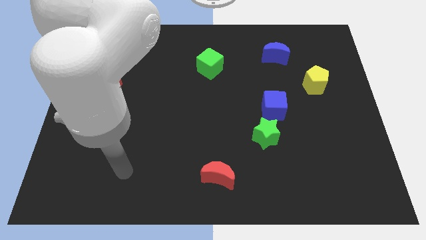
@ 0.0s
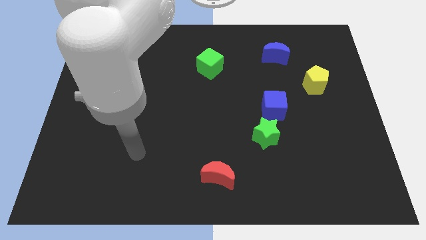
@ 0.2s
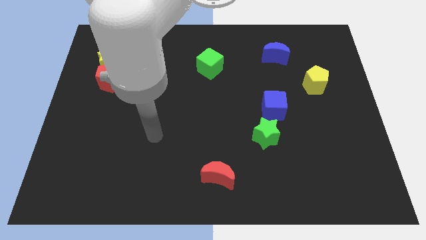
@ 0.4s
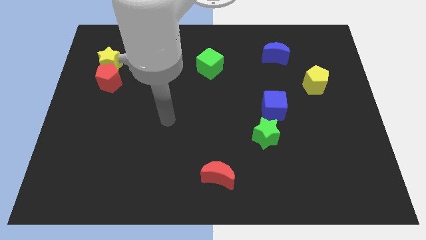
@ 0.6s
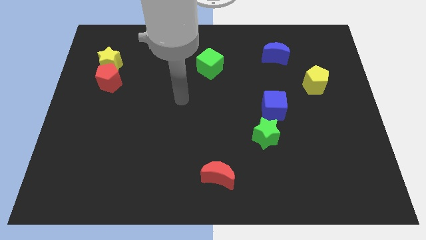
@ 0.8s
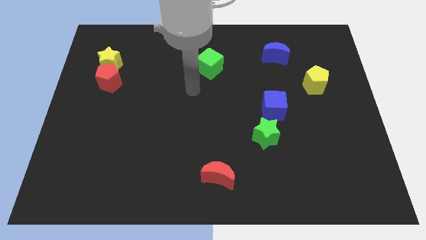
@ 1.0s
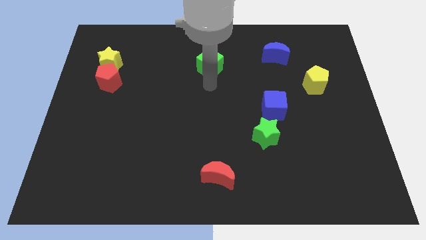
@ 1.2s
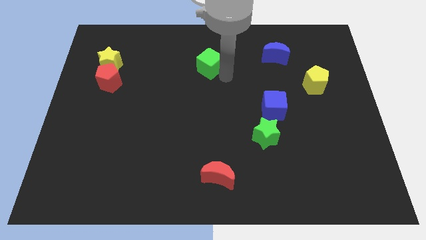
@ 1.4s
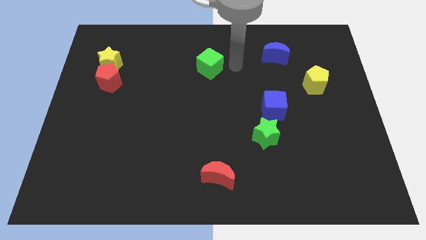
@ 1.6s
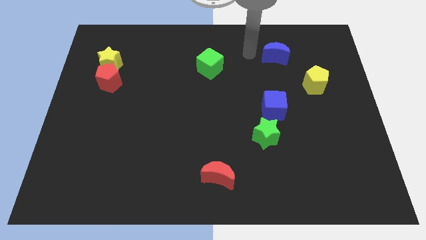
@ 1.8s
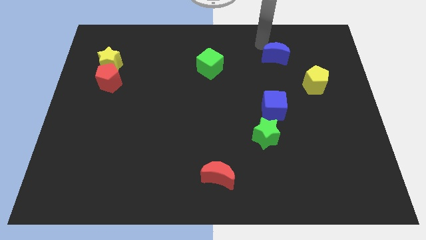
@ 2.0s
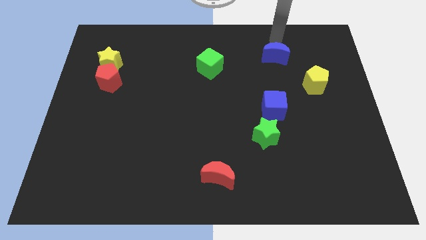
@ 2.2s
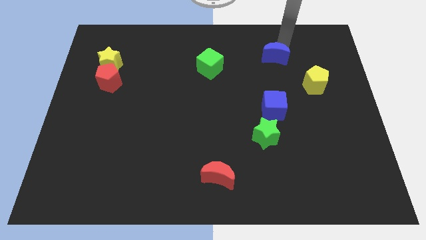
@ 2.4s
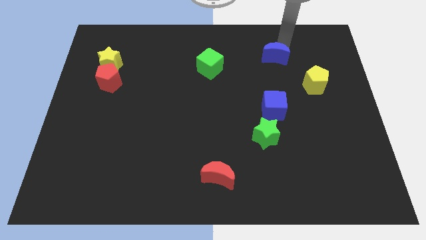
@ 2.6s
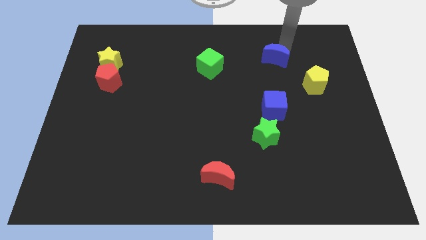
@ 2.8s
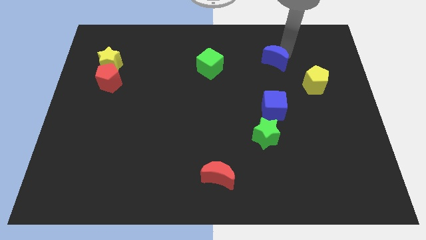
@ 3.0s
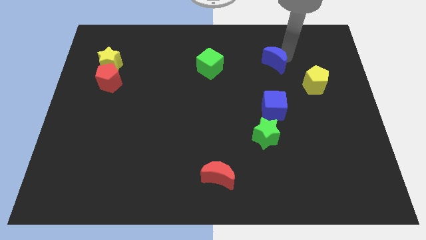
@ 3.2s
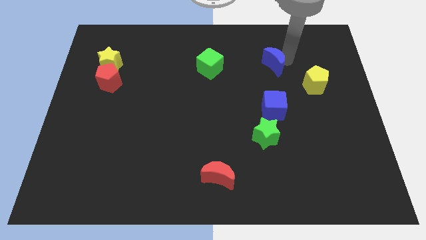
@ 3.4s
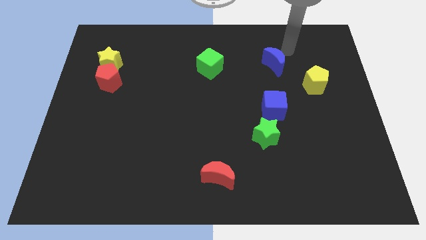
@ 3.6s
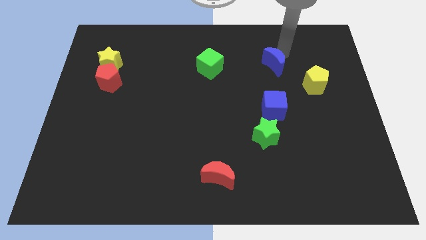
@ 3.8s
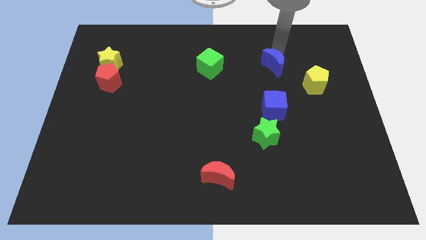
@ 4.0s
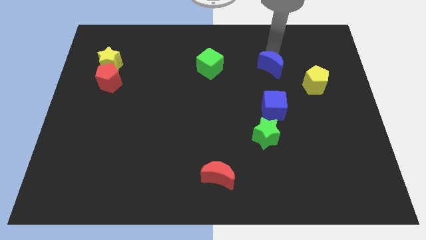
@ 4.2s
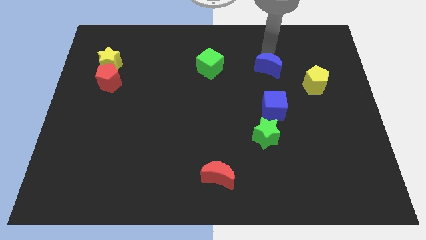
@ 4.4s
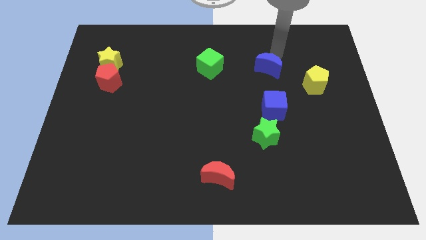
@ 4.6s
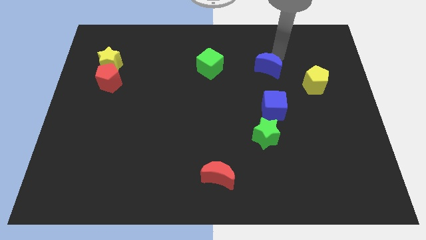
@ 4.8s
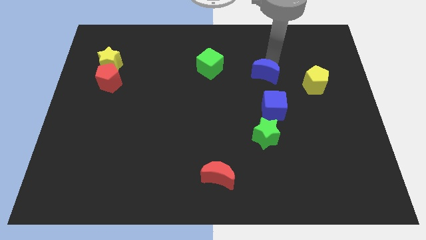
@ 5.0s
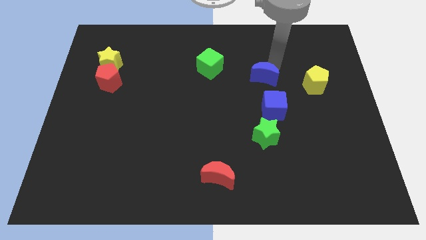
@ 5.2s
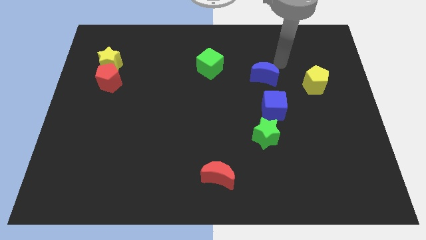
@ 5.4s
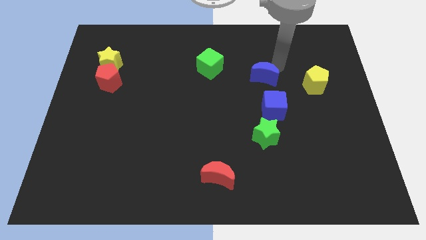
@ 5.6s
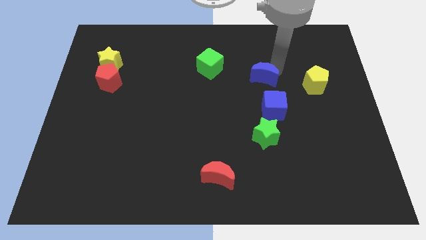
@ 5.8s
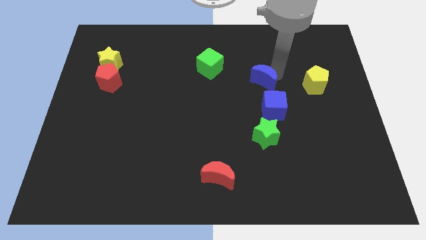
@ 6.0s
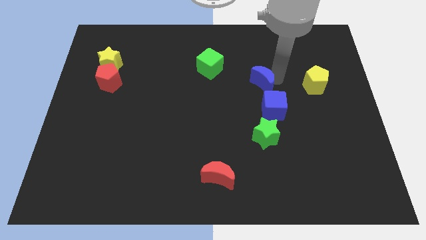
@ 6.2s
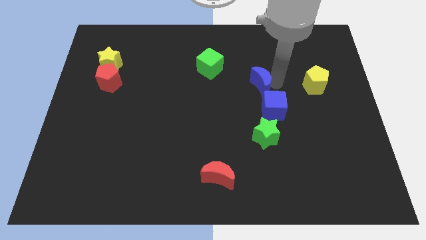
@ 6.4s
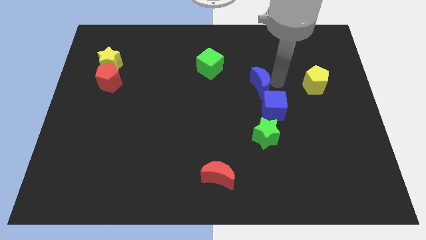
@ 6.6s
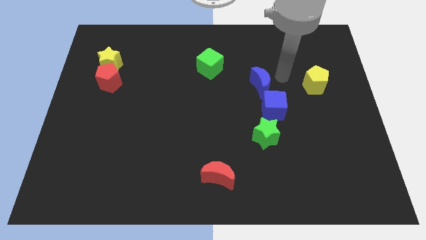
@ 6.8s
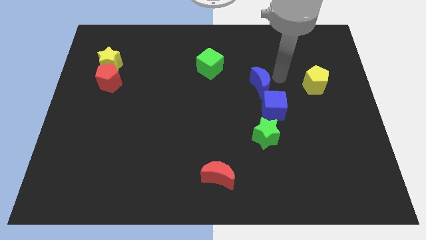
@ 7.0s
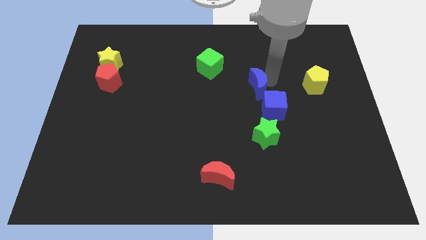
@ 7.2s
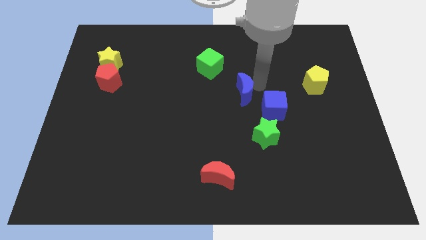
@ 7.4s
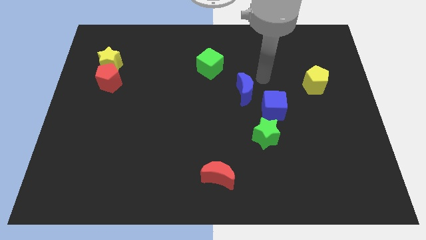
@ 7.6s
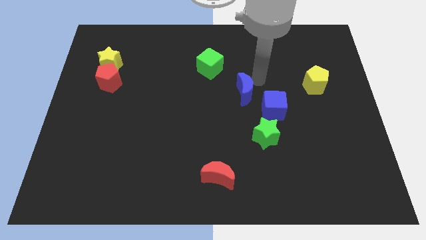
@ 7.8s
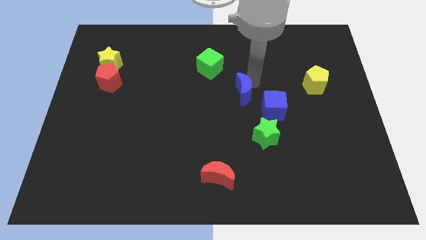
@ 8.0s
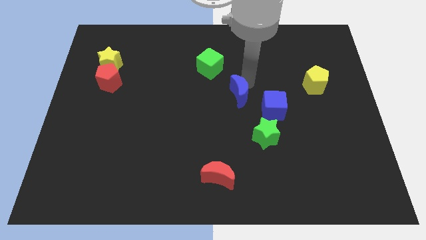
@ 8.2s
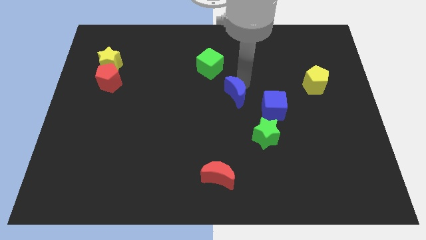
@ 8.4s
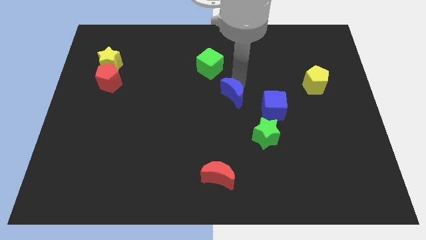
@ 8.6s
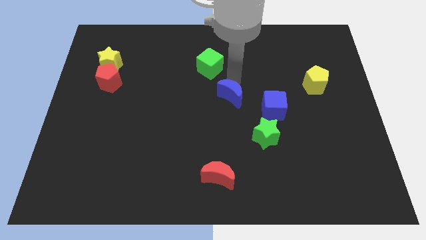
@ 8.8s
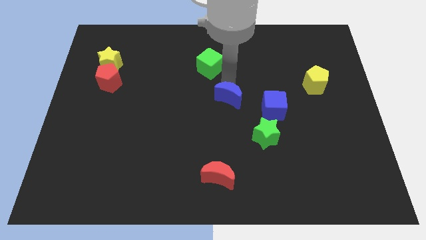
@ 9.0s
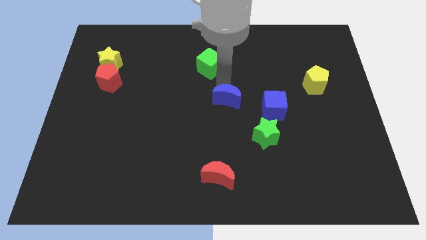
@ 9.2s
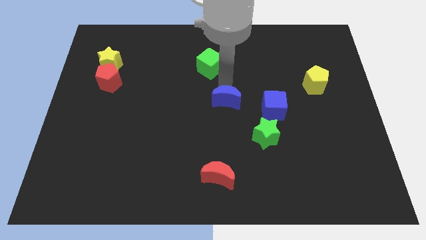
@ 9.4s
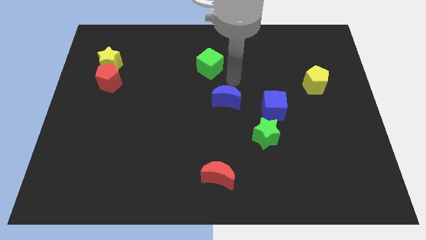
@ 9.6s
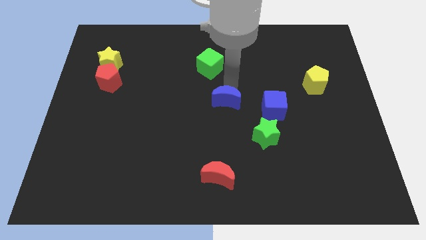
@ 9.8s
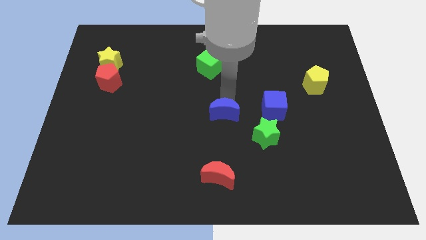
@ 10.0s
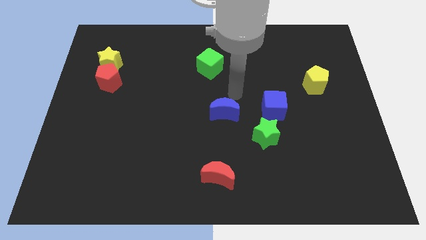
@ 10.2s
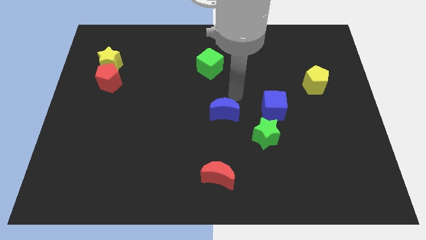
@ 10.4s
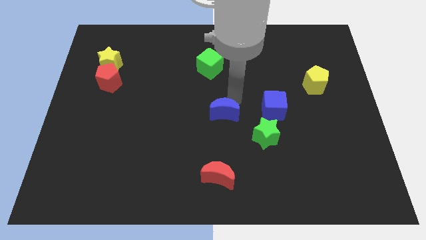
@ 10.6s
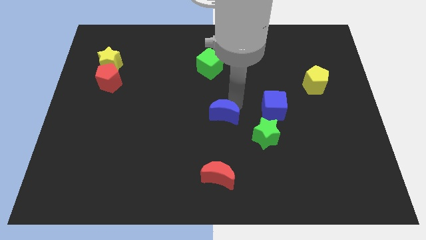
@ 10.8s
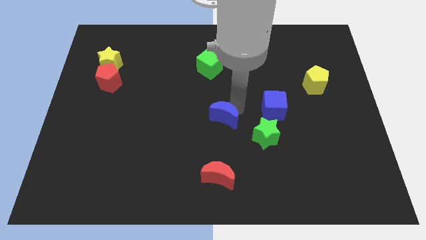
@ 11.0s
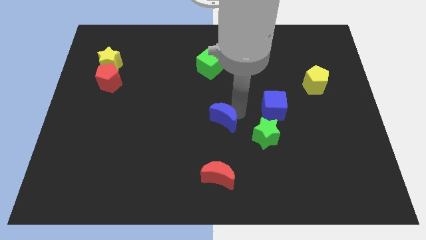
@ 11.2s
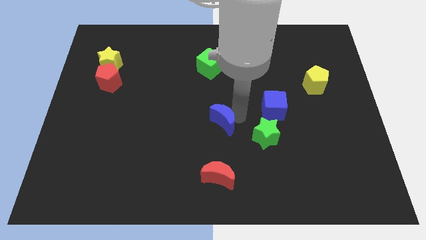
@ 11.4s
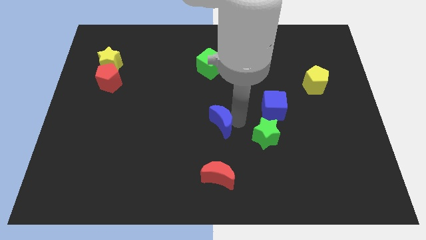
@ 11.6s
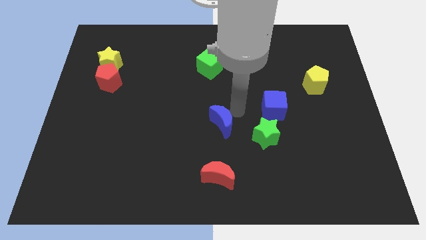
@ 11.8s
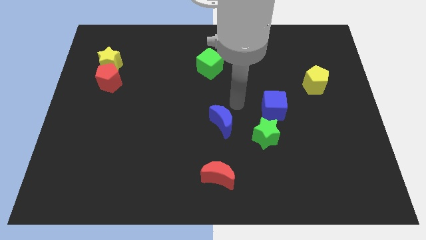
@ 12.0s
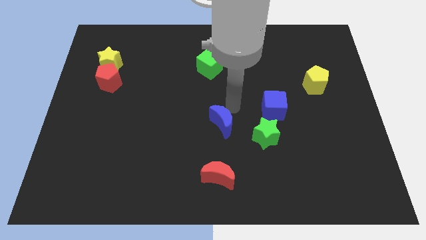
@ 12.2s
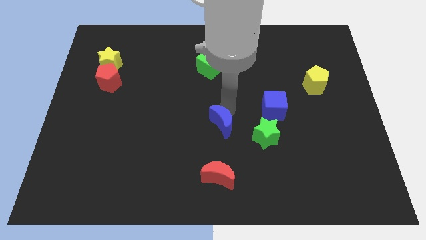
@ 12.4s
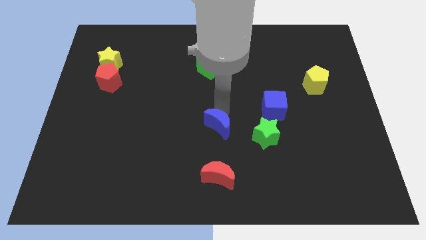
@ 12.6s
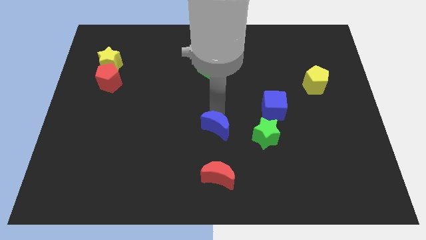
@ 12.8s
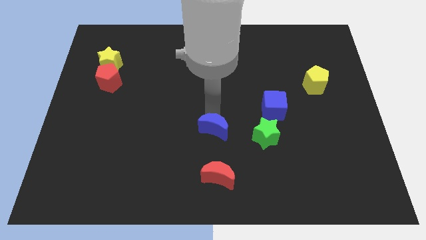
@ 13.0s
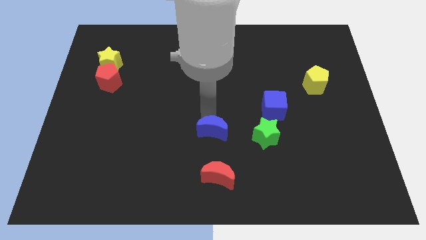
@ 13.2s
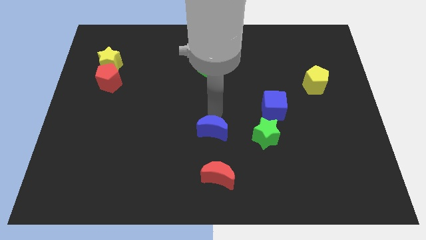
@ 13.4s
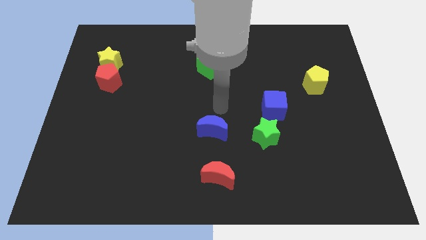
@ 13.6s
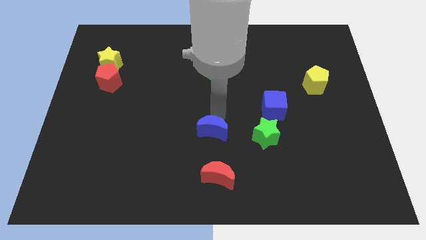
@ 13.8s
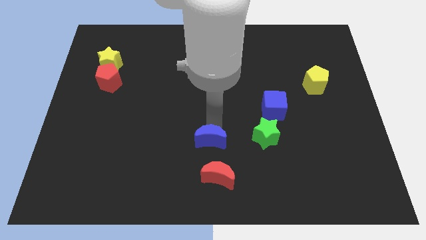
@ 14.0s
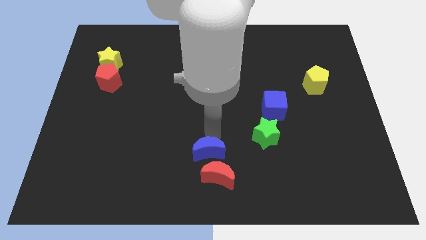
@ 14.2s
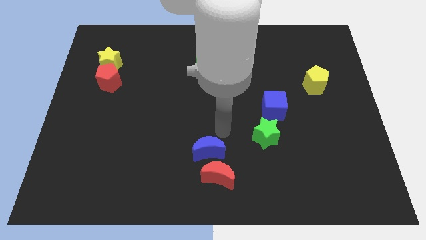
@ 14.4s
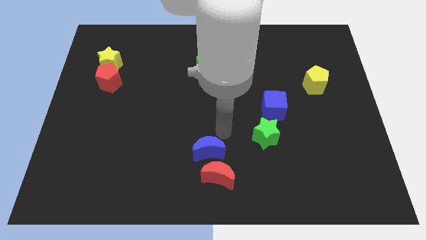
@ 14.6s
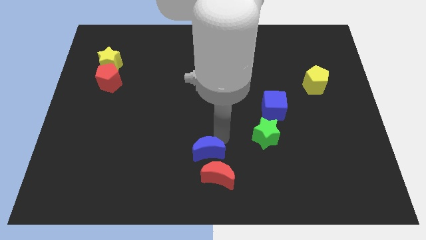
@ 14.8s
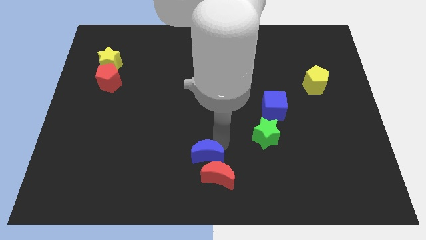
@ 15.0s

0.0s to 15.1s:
put the blue moon to the bottom side
